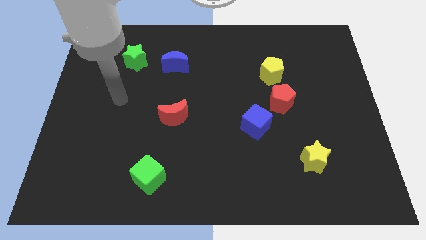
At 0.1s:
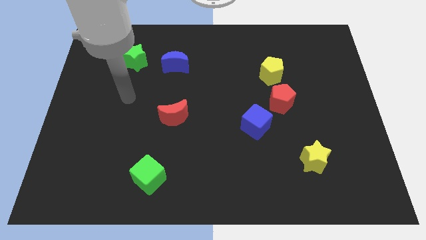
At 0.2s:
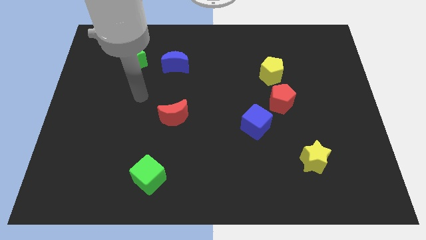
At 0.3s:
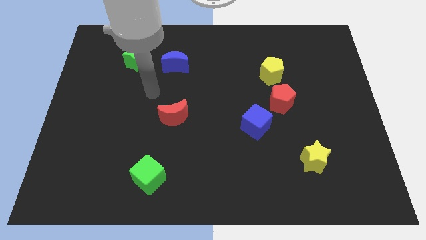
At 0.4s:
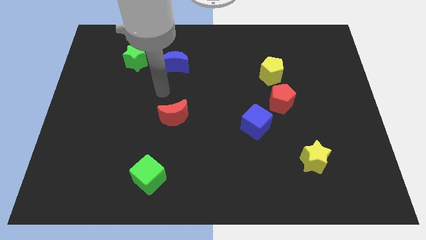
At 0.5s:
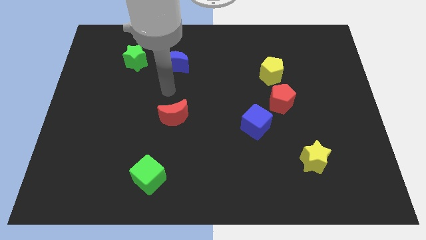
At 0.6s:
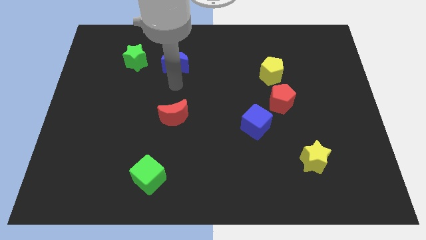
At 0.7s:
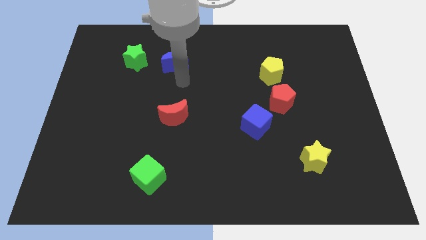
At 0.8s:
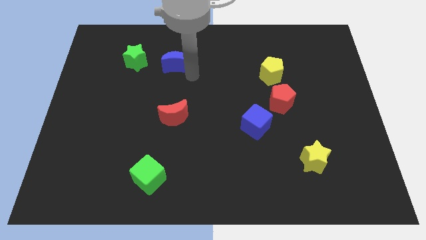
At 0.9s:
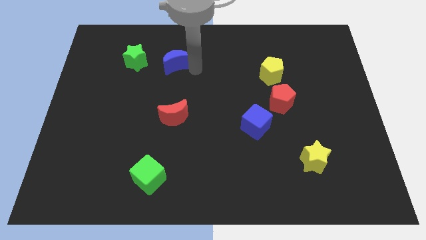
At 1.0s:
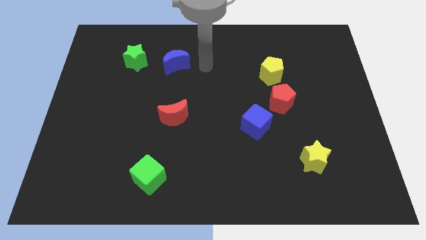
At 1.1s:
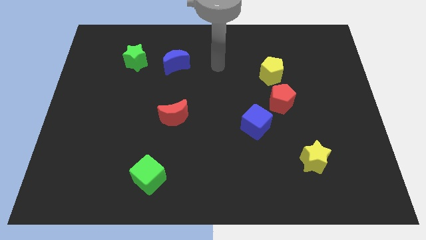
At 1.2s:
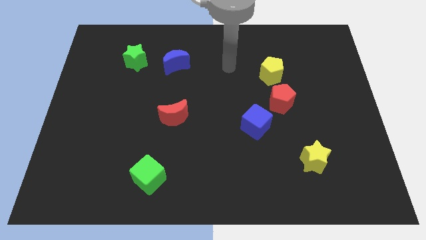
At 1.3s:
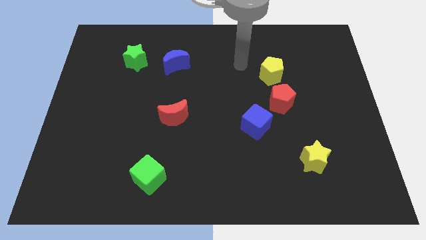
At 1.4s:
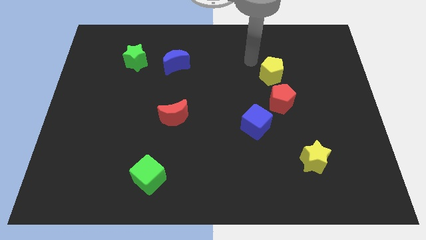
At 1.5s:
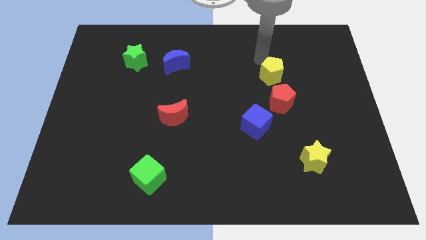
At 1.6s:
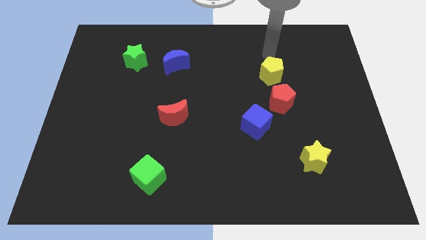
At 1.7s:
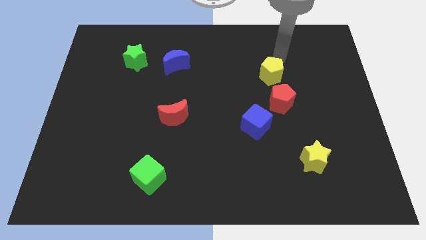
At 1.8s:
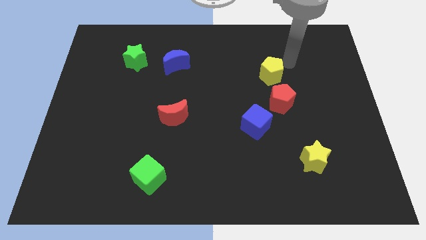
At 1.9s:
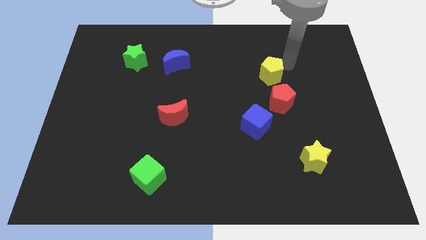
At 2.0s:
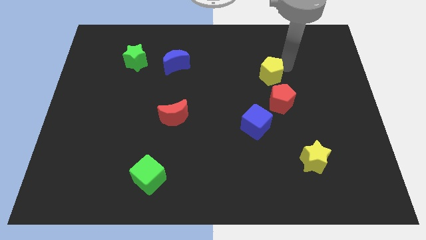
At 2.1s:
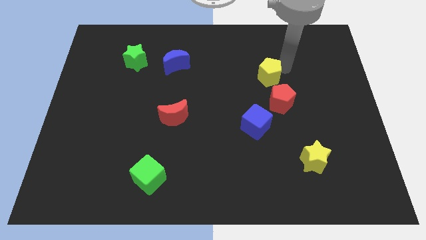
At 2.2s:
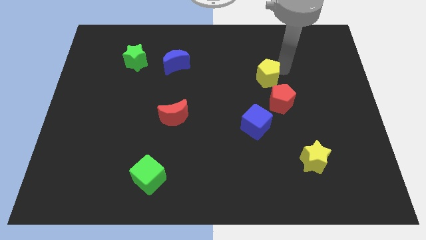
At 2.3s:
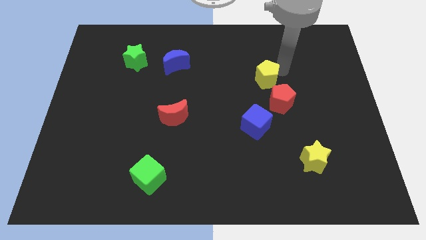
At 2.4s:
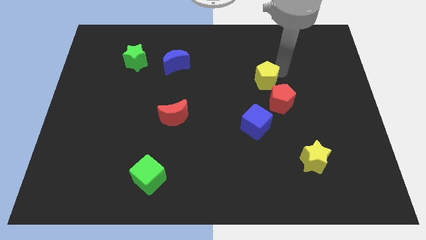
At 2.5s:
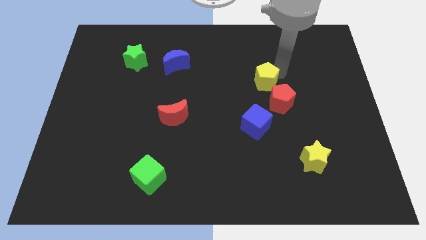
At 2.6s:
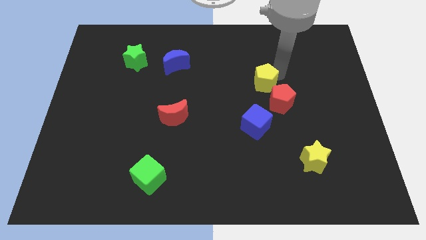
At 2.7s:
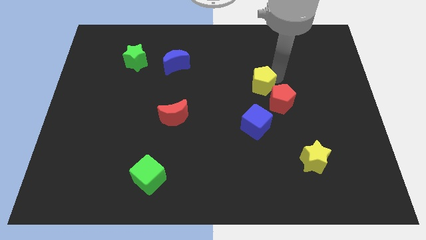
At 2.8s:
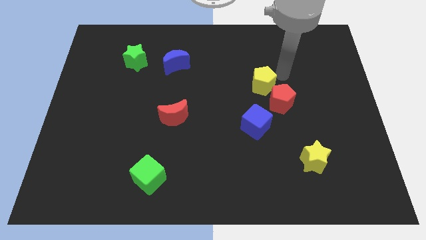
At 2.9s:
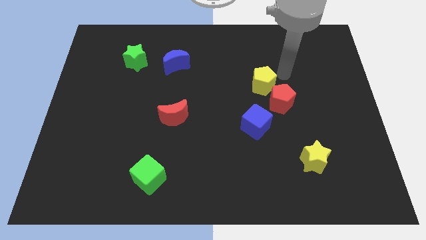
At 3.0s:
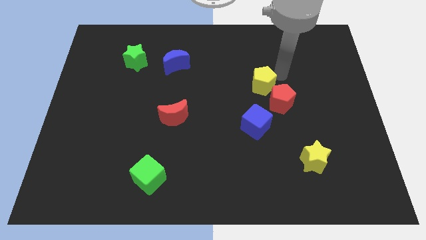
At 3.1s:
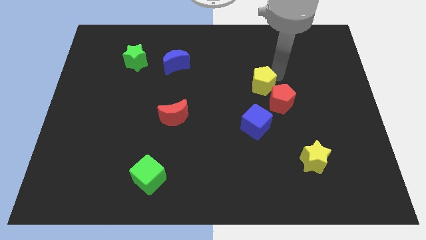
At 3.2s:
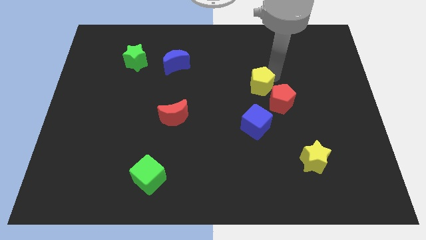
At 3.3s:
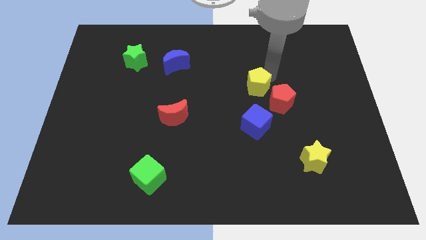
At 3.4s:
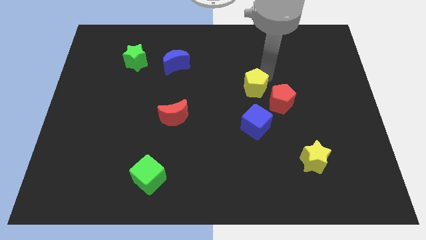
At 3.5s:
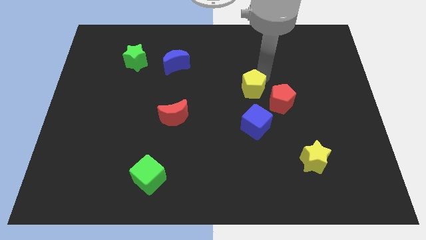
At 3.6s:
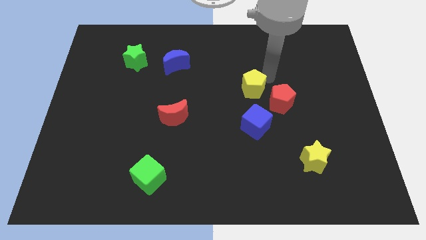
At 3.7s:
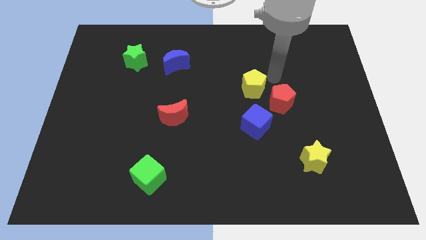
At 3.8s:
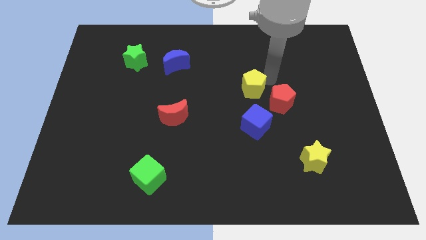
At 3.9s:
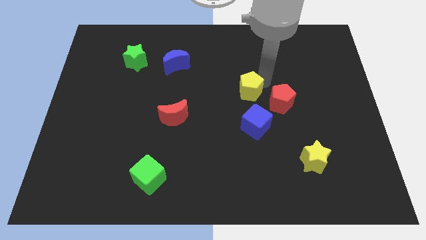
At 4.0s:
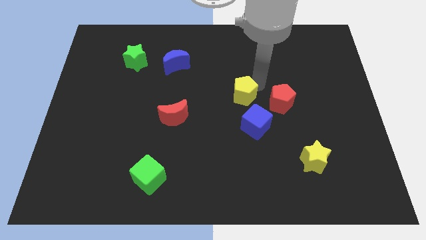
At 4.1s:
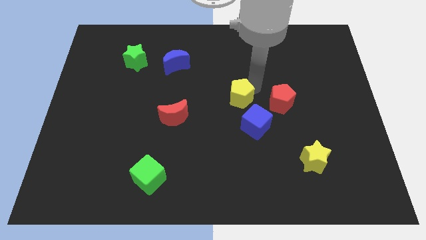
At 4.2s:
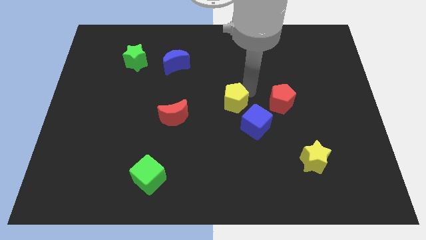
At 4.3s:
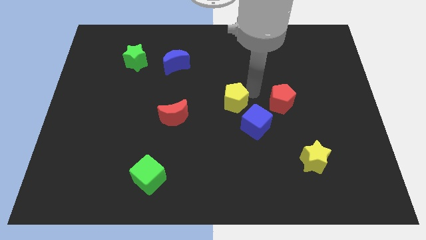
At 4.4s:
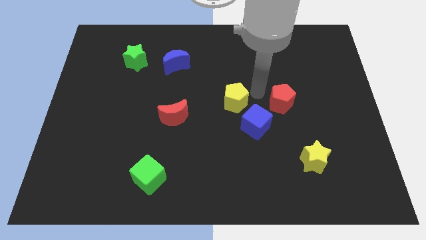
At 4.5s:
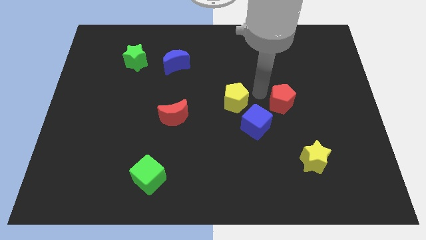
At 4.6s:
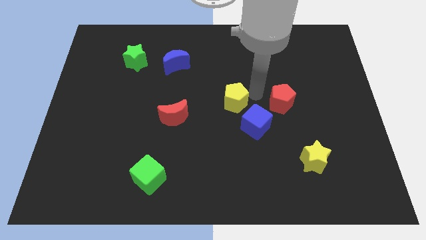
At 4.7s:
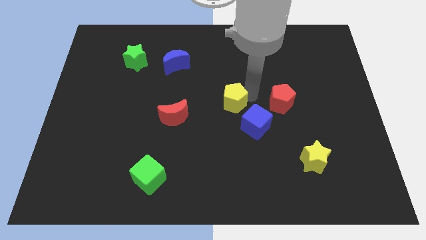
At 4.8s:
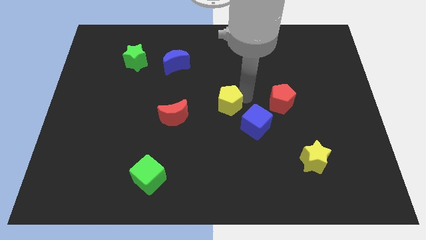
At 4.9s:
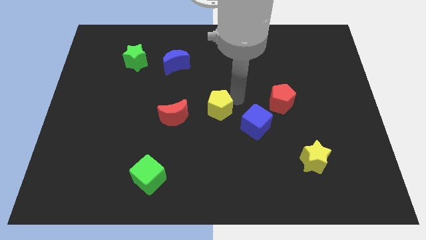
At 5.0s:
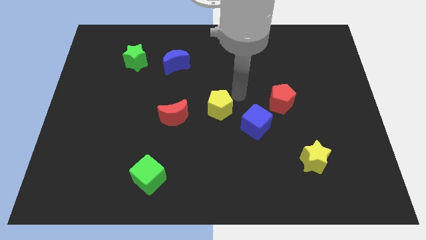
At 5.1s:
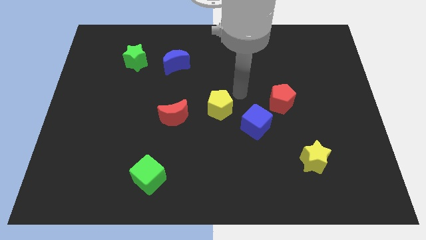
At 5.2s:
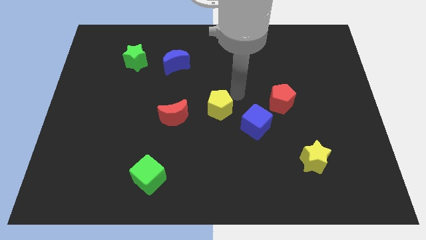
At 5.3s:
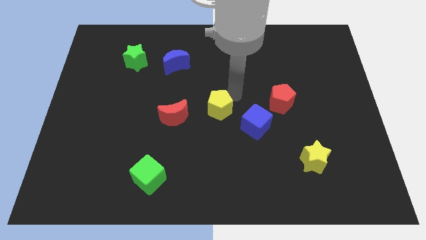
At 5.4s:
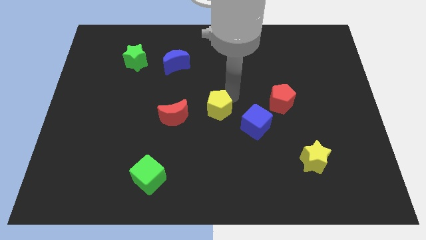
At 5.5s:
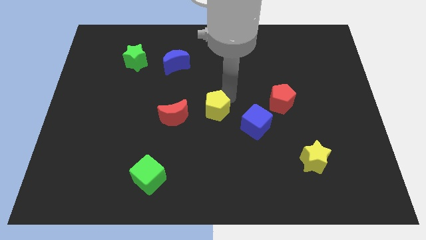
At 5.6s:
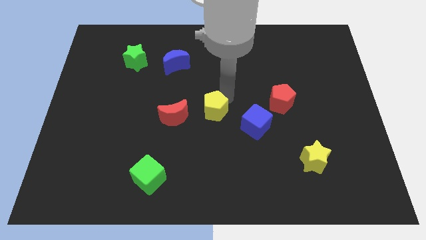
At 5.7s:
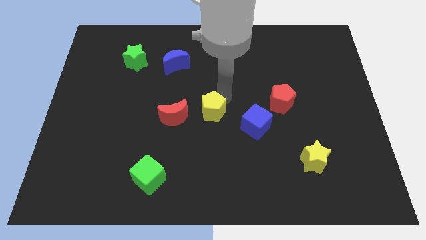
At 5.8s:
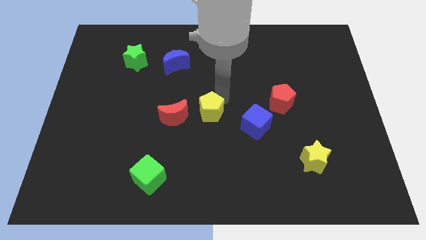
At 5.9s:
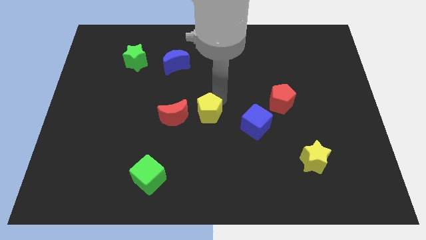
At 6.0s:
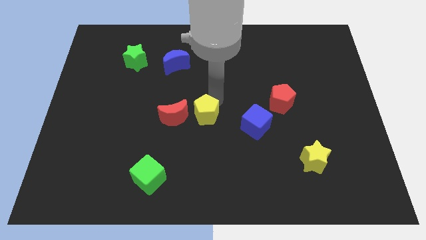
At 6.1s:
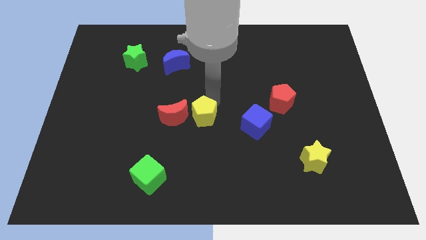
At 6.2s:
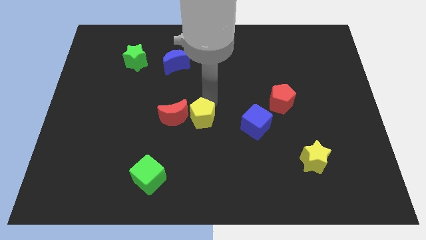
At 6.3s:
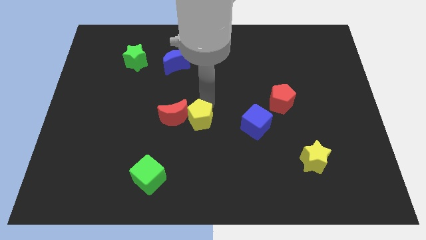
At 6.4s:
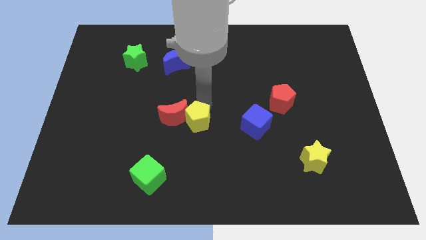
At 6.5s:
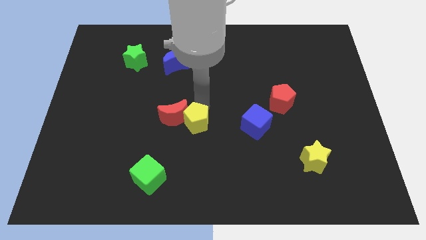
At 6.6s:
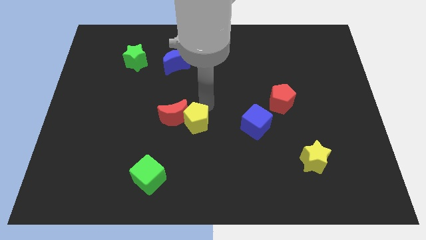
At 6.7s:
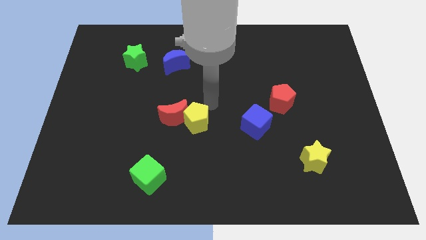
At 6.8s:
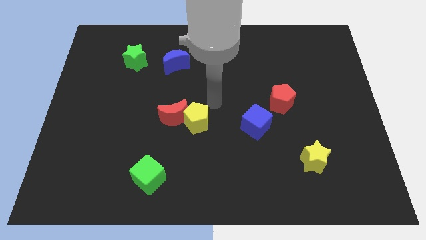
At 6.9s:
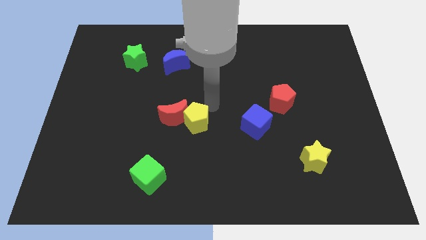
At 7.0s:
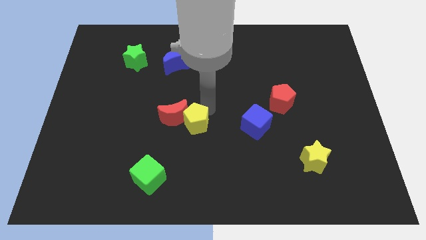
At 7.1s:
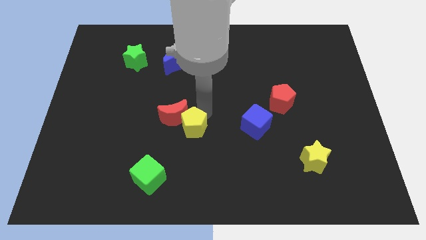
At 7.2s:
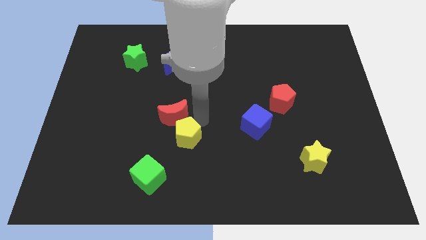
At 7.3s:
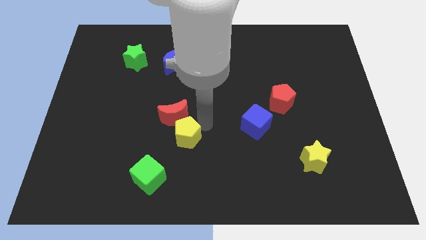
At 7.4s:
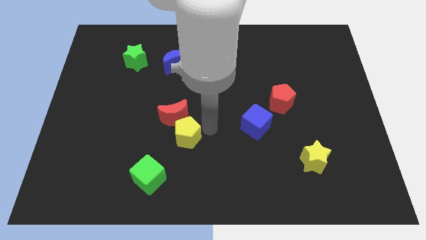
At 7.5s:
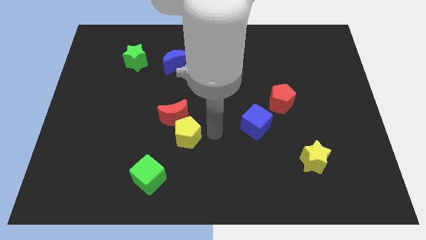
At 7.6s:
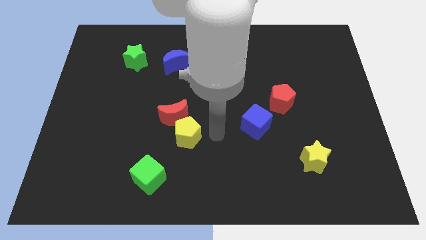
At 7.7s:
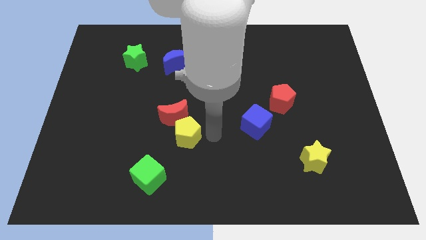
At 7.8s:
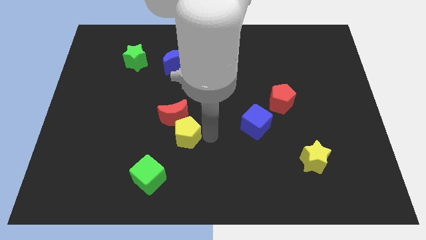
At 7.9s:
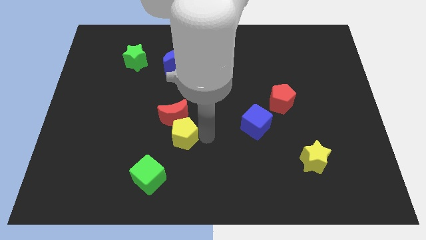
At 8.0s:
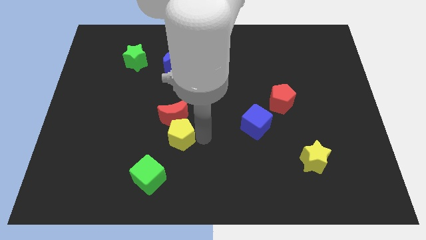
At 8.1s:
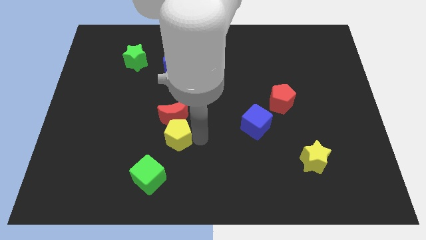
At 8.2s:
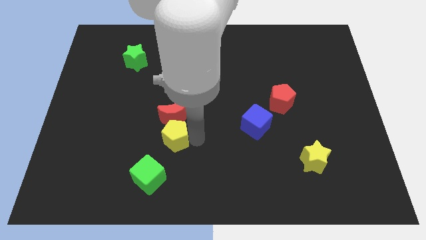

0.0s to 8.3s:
slide the yellow pentagon above the green cube
